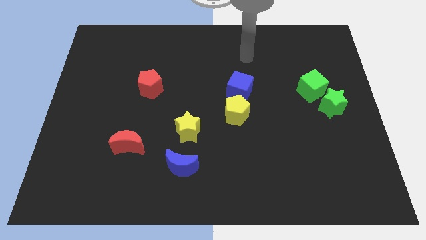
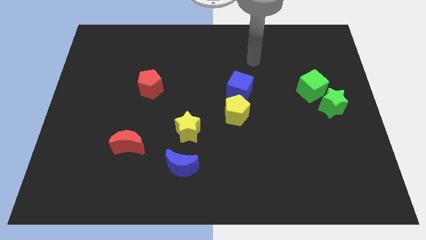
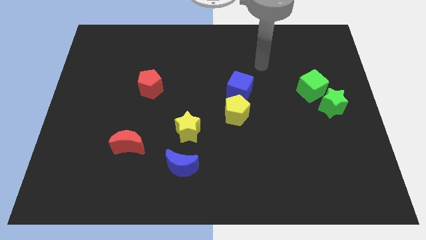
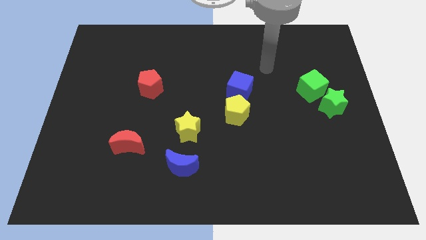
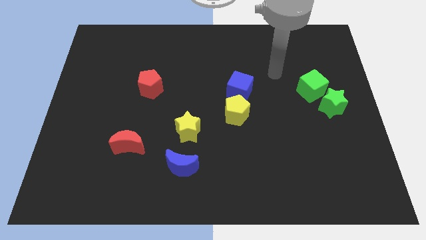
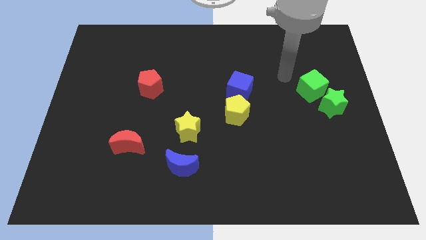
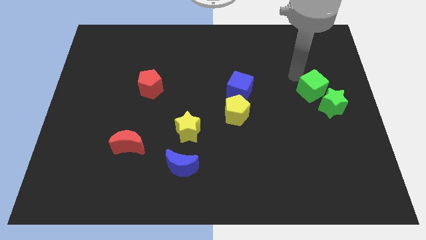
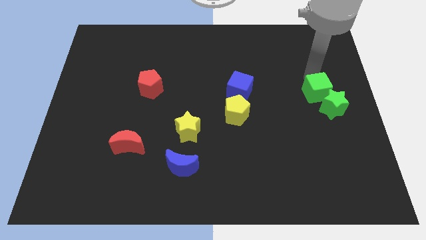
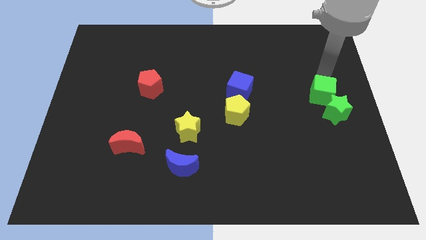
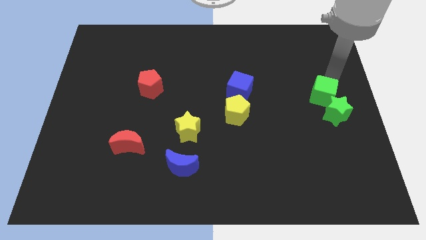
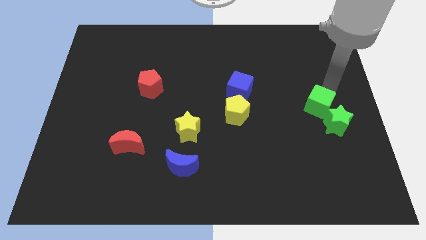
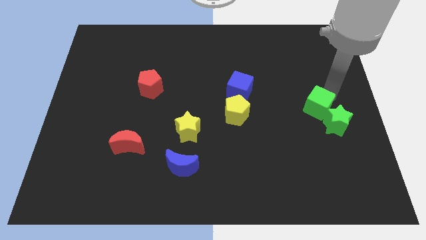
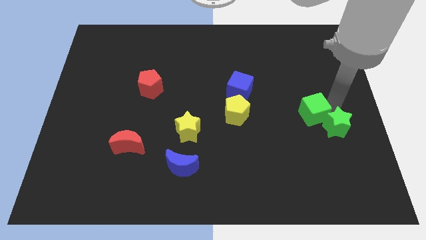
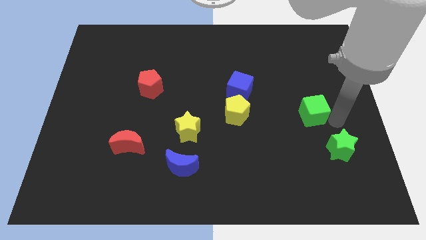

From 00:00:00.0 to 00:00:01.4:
pull the green cube apart from the green star

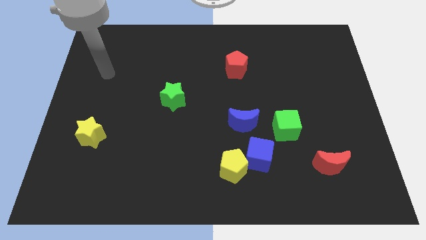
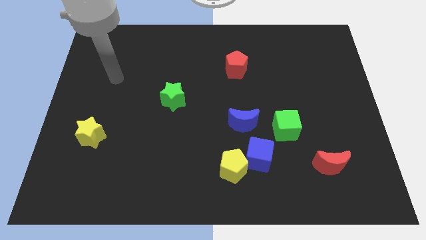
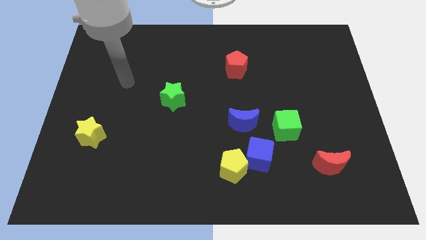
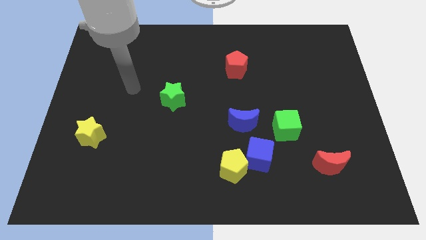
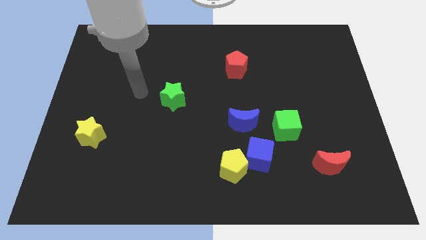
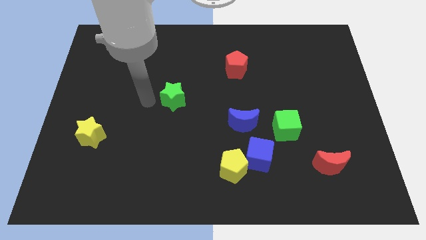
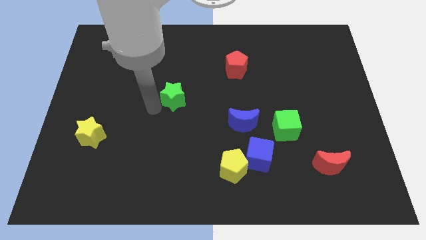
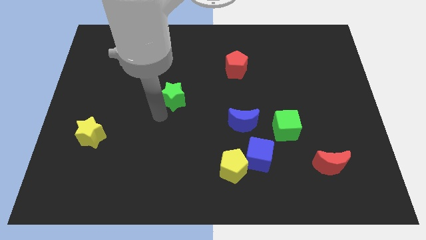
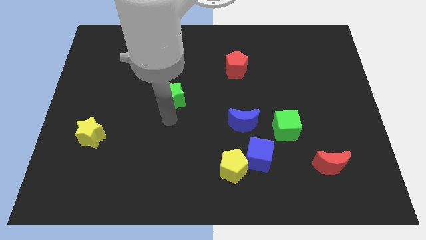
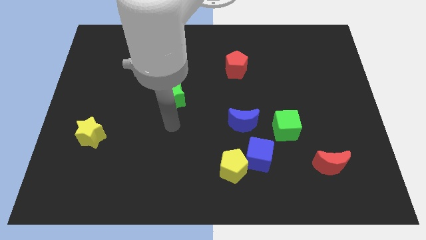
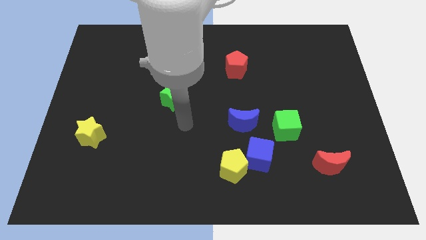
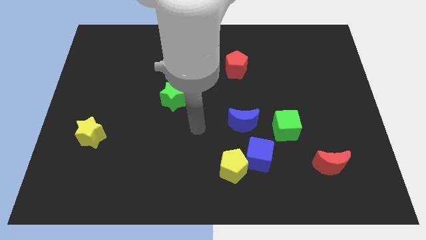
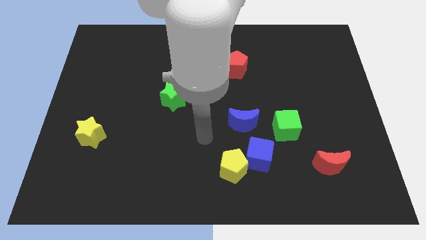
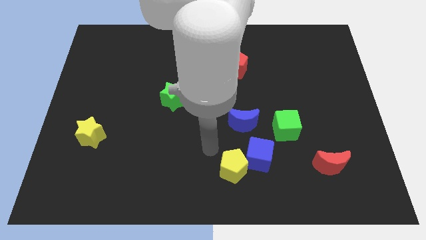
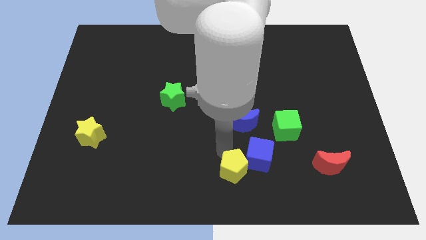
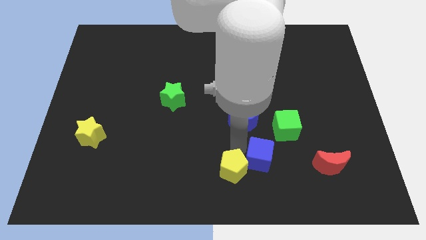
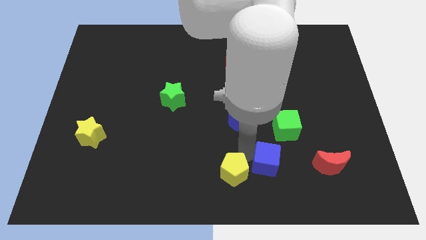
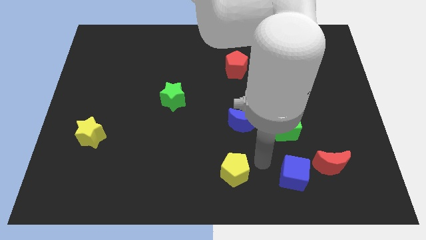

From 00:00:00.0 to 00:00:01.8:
separate the yellow pentagon from the blue cube

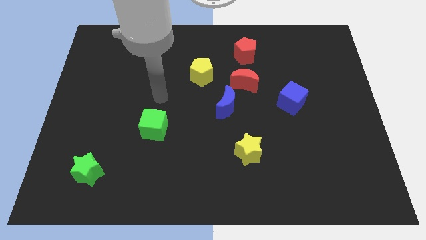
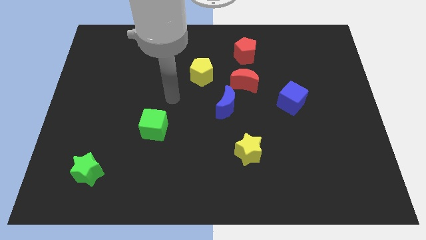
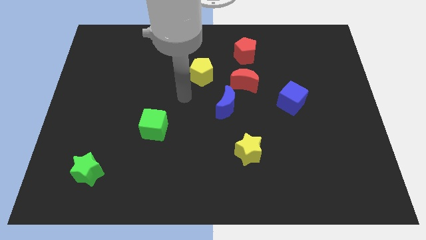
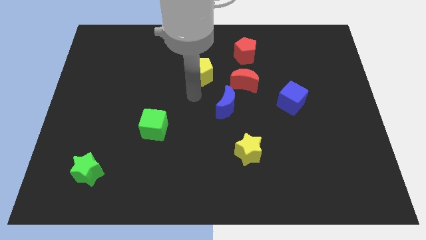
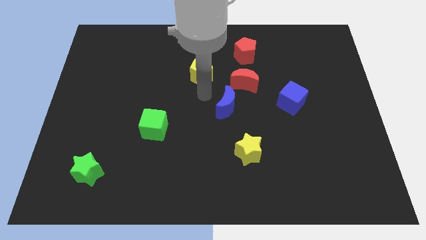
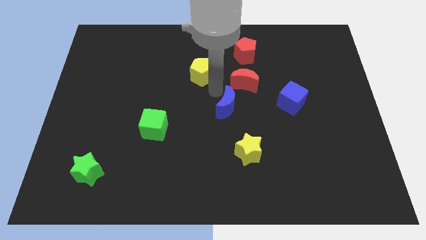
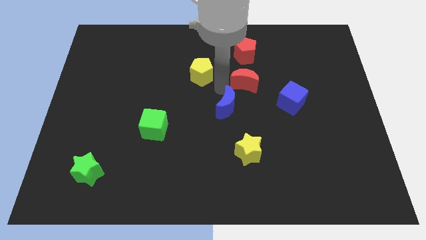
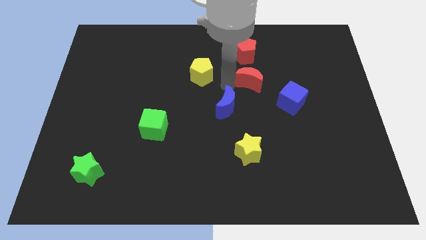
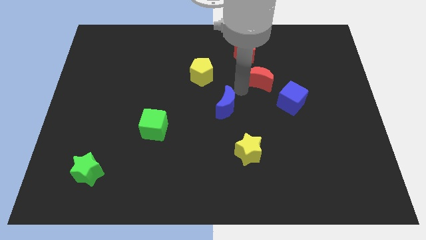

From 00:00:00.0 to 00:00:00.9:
separate the blue moon from the red moon

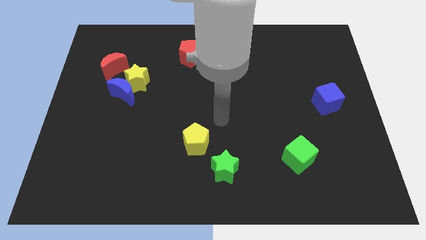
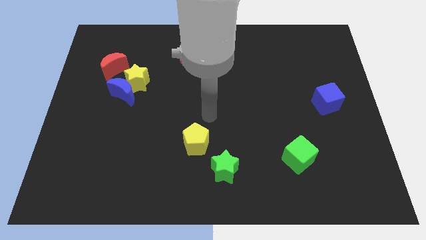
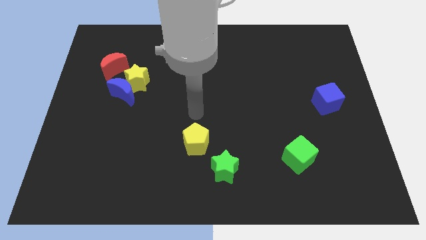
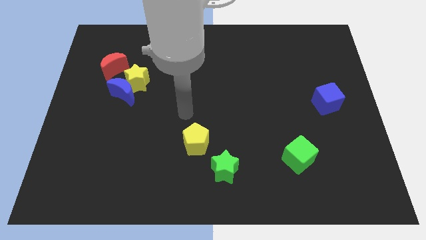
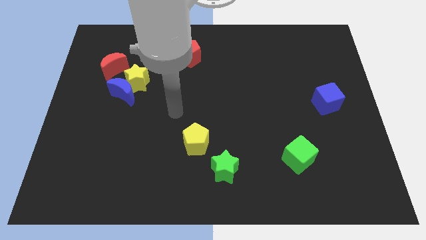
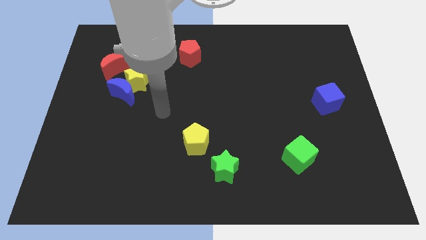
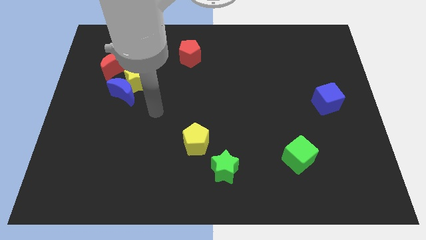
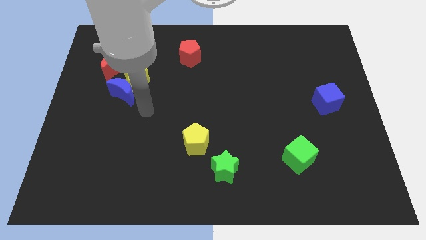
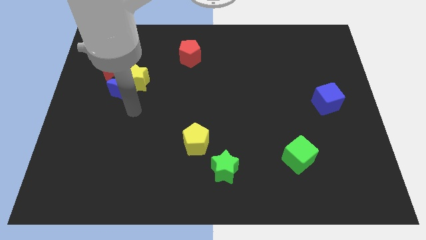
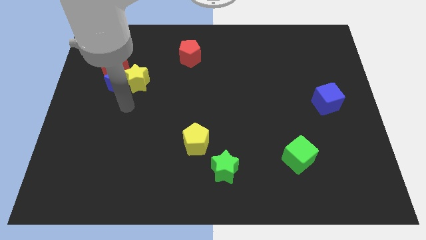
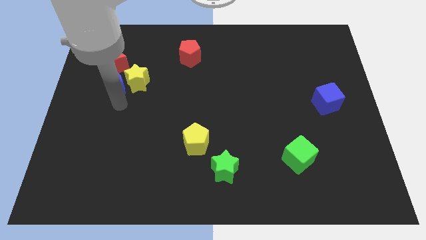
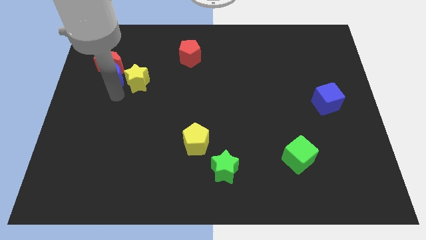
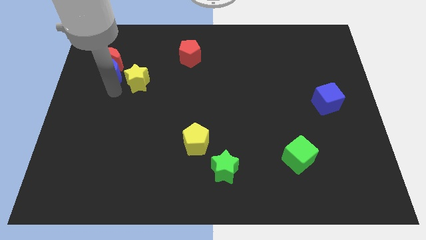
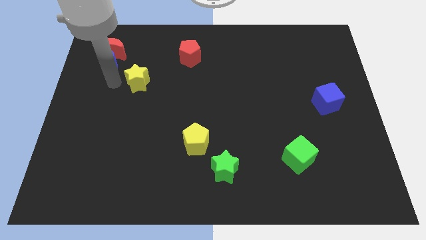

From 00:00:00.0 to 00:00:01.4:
move the yellow star away from the blue moon and red moon

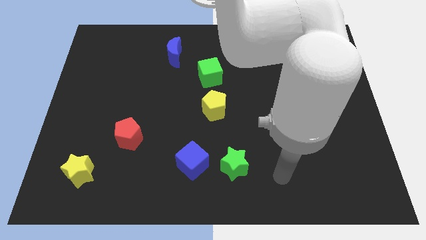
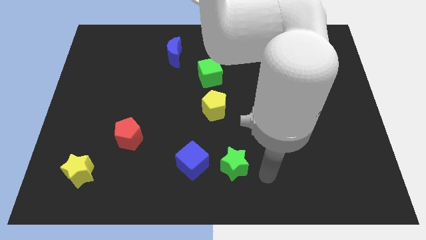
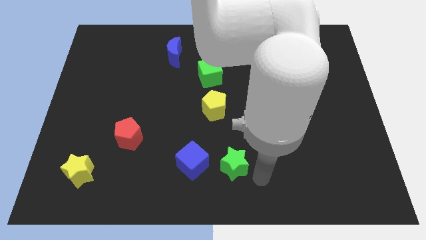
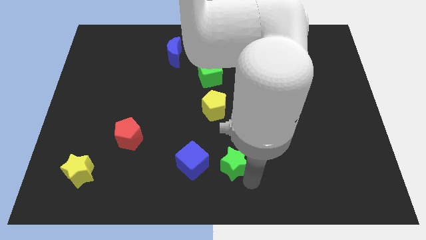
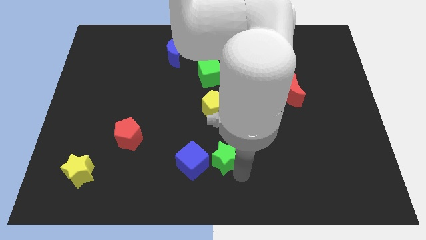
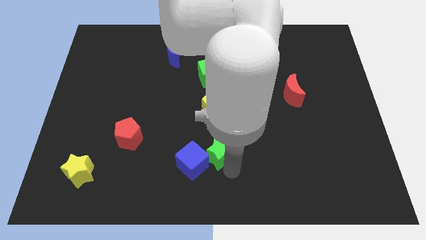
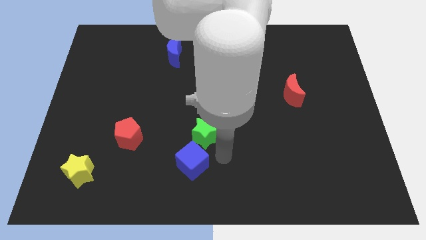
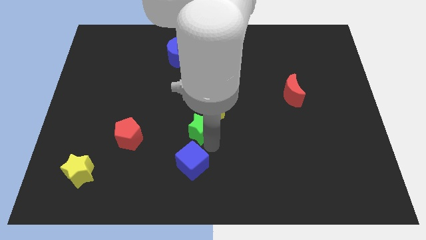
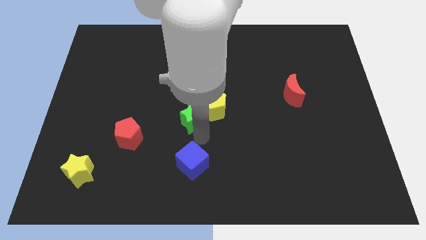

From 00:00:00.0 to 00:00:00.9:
move the blue cube away from the green star

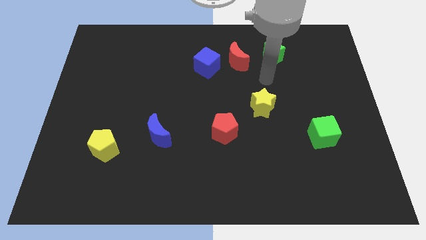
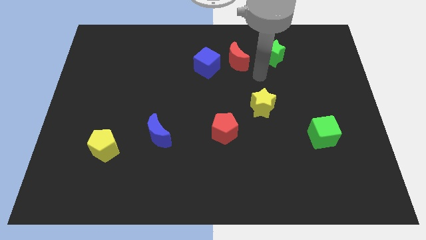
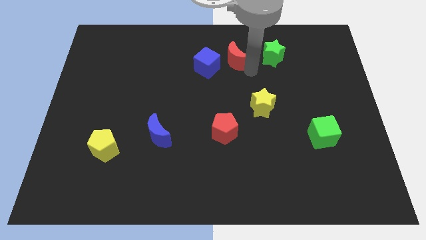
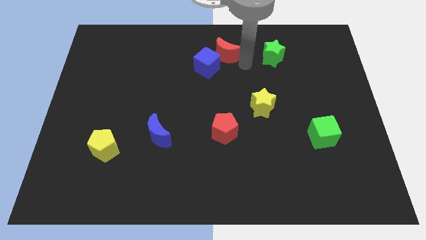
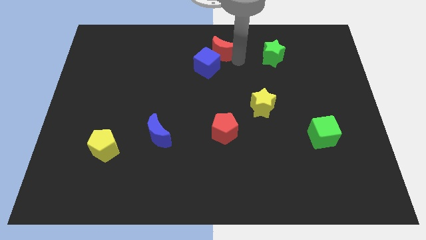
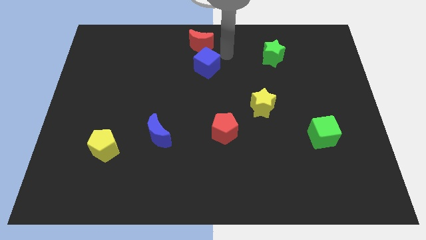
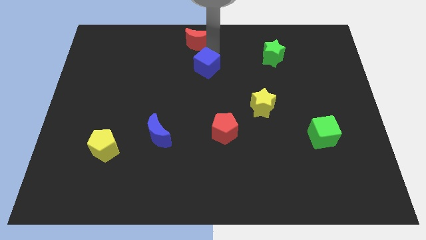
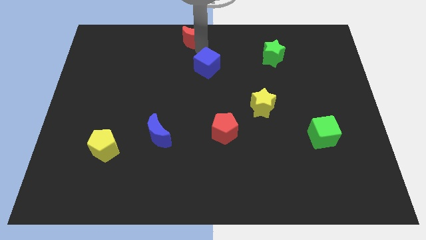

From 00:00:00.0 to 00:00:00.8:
pull the blue cube apart from the red moon

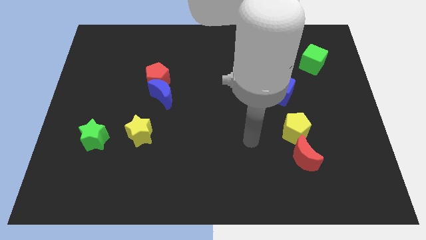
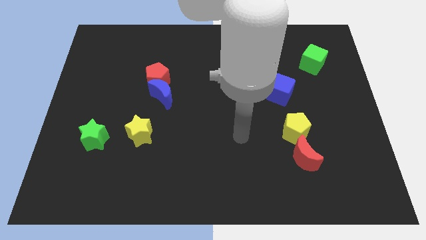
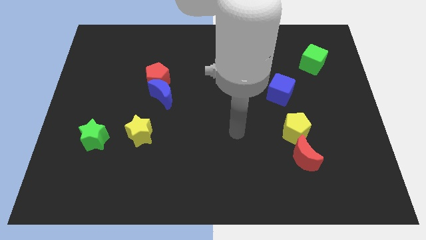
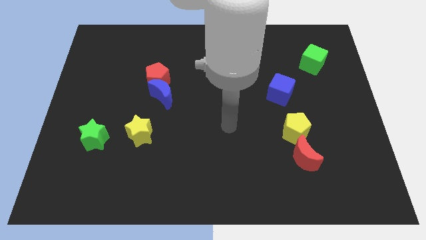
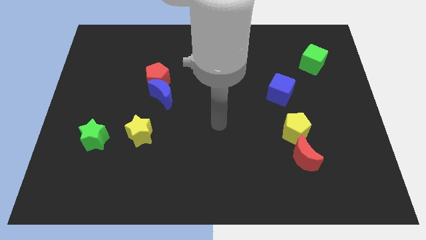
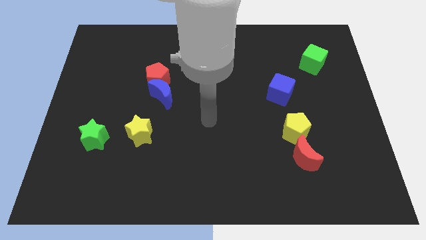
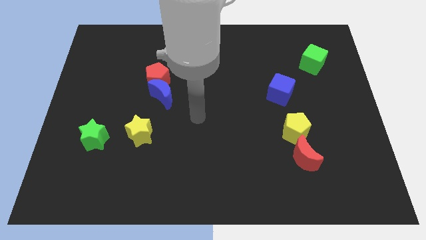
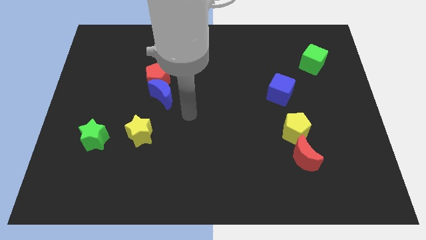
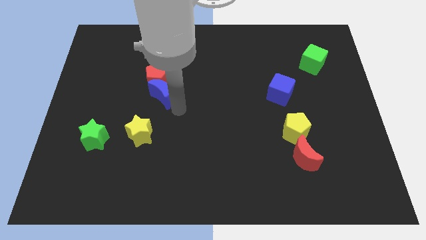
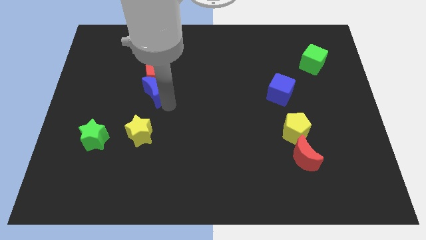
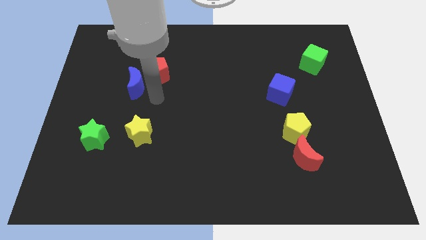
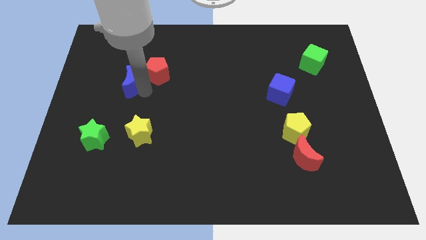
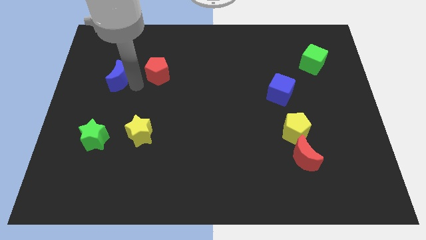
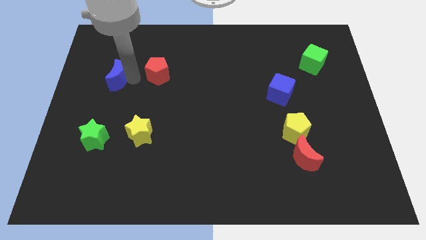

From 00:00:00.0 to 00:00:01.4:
move the red pentagon away from the blue moon

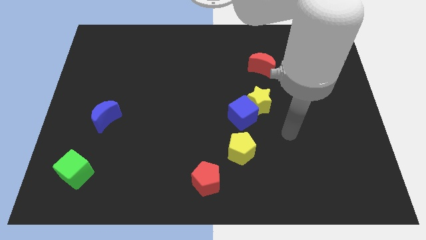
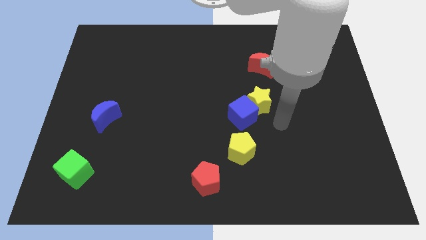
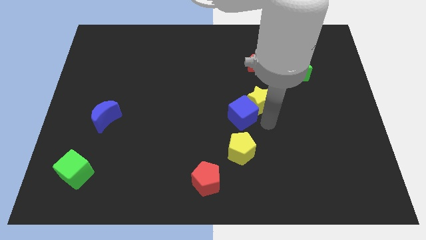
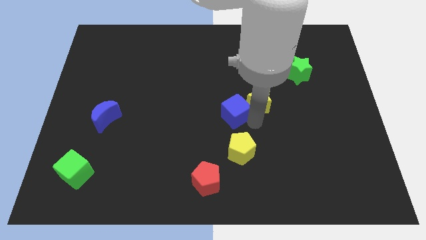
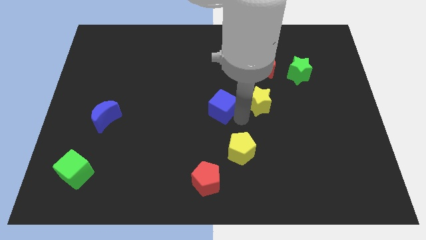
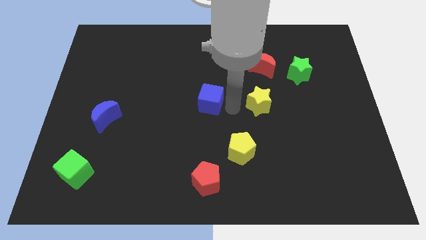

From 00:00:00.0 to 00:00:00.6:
pull the yellow star apart from the blue cube
